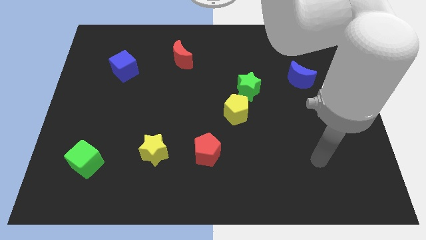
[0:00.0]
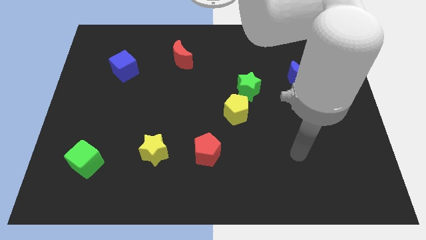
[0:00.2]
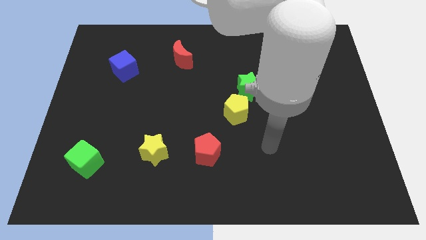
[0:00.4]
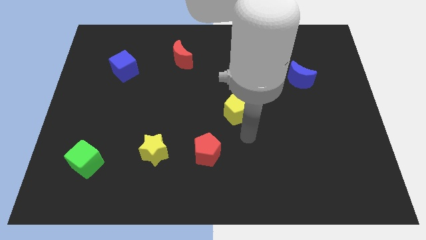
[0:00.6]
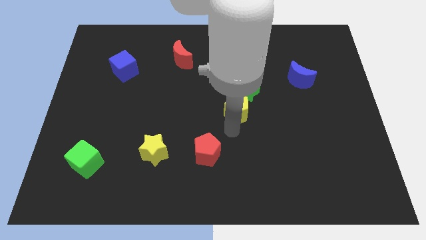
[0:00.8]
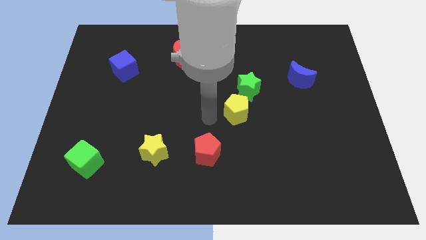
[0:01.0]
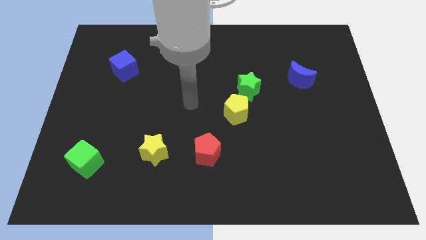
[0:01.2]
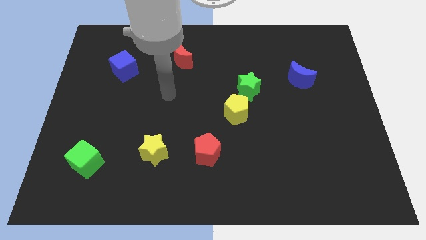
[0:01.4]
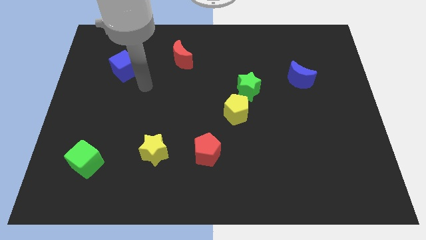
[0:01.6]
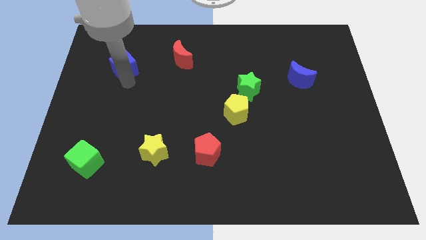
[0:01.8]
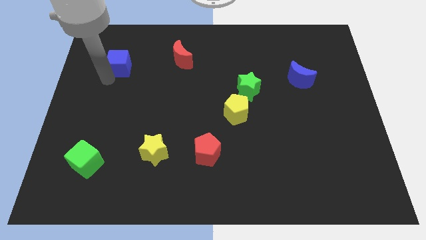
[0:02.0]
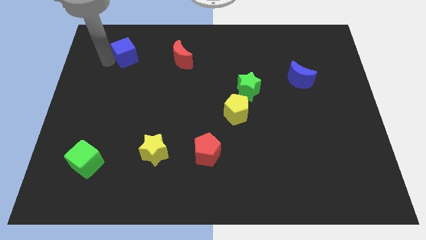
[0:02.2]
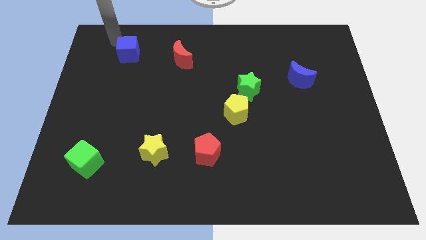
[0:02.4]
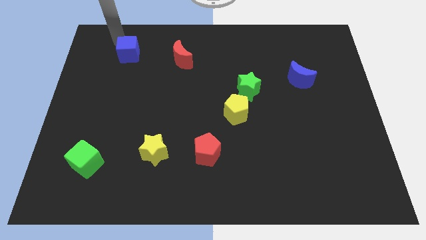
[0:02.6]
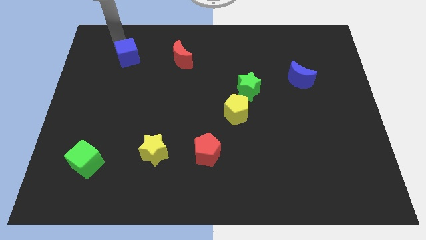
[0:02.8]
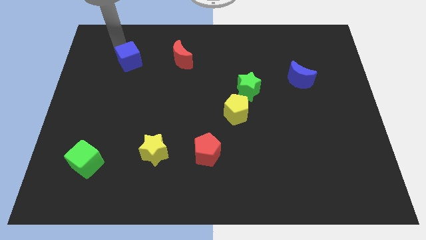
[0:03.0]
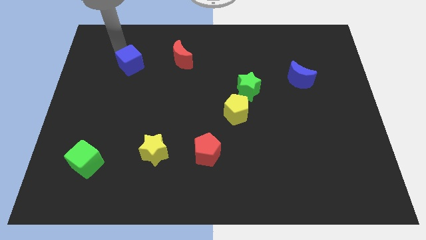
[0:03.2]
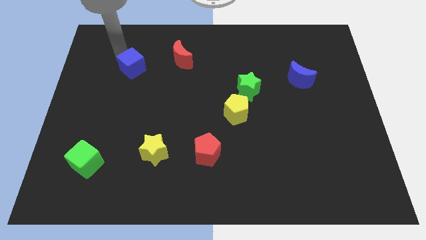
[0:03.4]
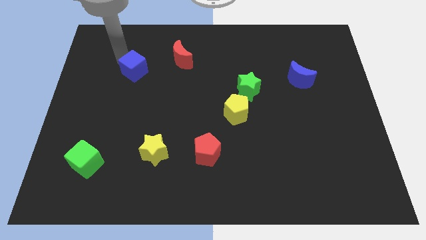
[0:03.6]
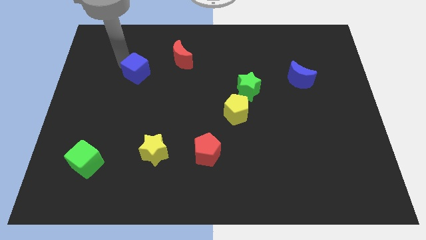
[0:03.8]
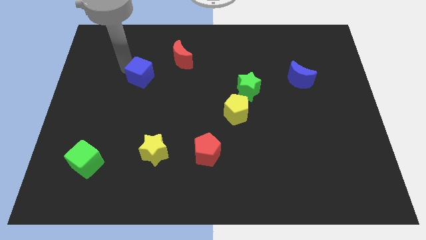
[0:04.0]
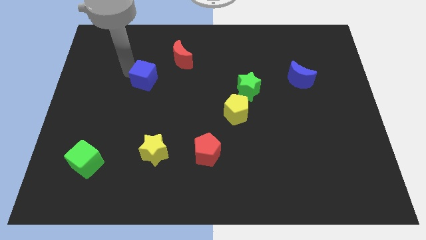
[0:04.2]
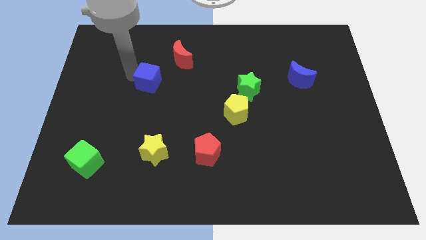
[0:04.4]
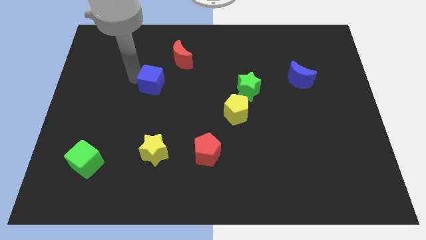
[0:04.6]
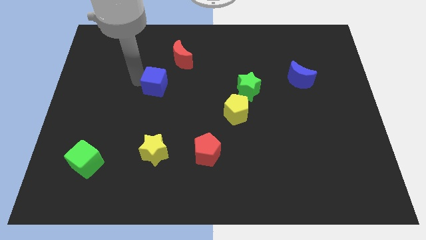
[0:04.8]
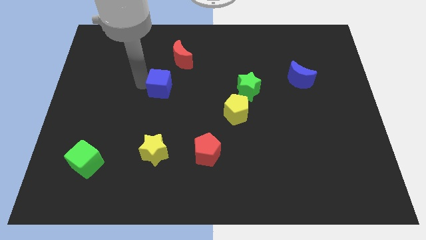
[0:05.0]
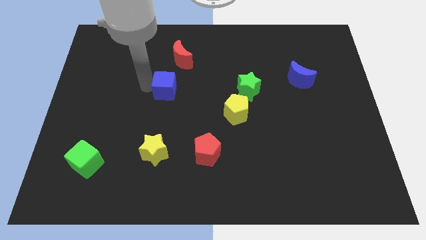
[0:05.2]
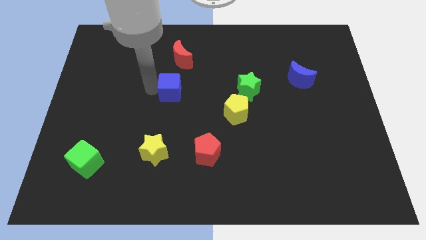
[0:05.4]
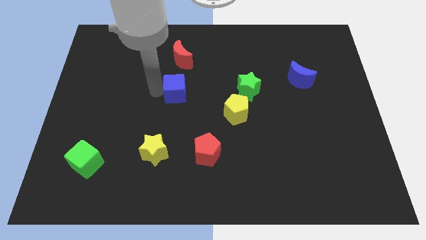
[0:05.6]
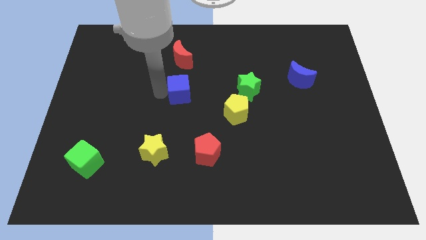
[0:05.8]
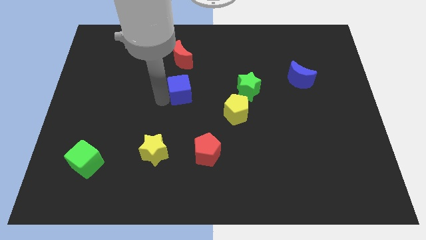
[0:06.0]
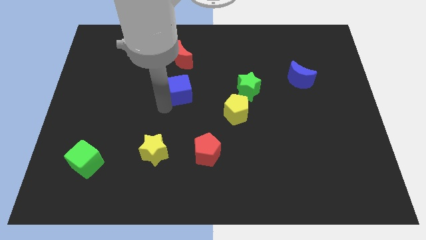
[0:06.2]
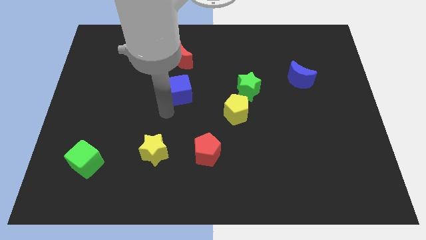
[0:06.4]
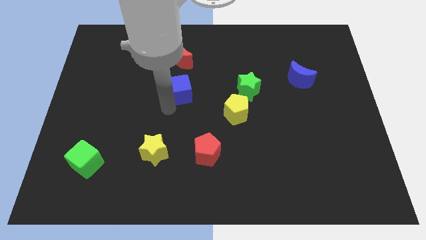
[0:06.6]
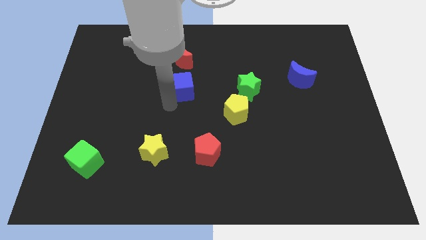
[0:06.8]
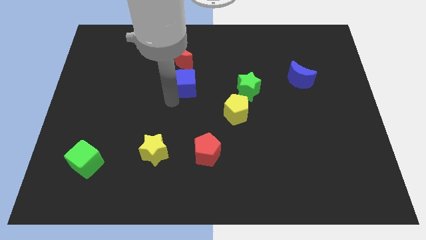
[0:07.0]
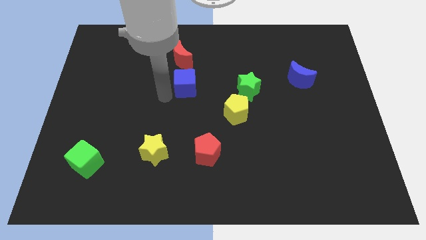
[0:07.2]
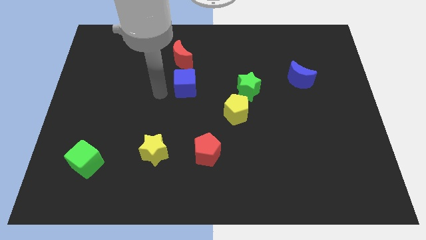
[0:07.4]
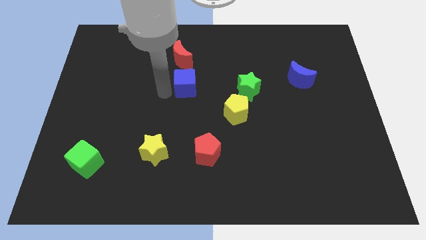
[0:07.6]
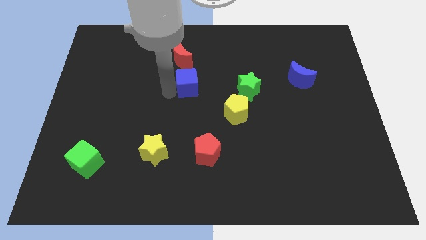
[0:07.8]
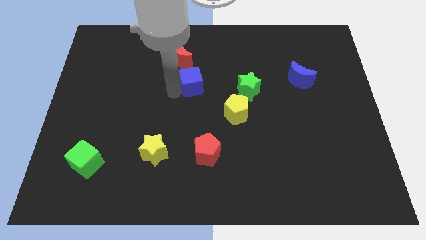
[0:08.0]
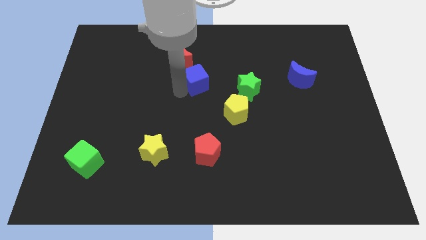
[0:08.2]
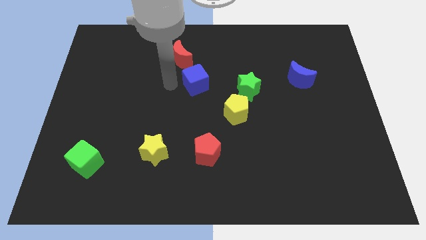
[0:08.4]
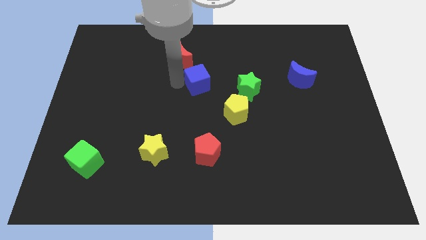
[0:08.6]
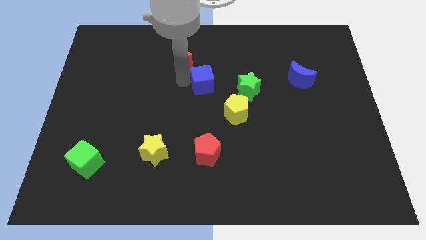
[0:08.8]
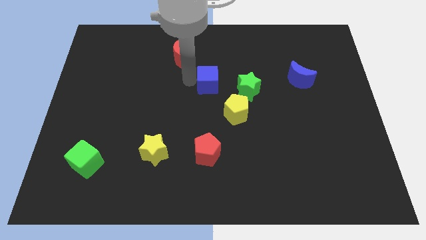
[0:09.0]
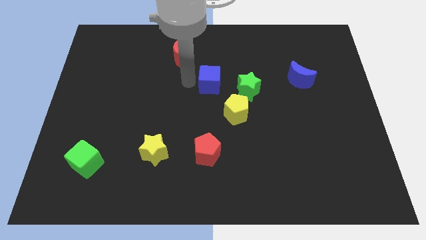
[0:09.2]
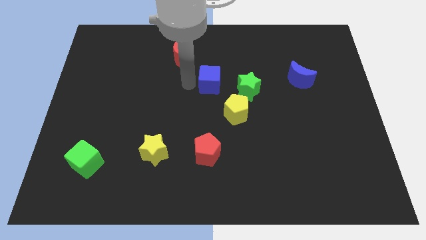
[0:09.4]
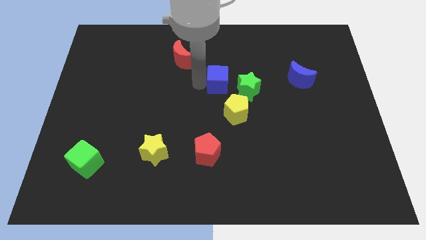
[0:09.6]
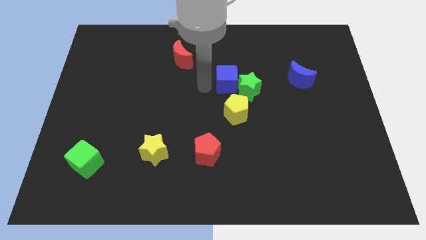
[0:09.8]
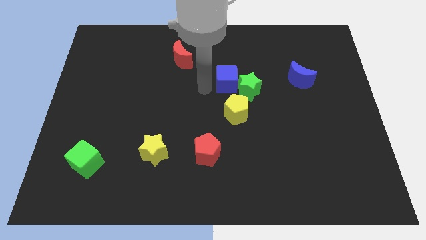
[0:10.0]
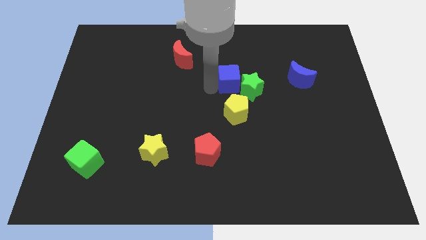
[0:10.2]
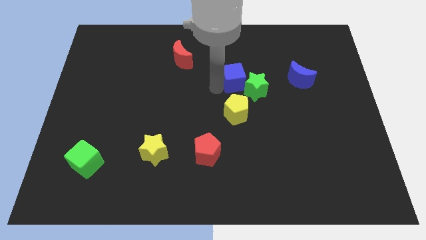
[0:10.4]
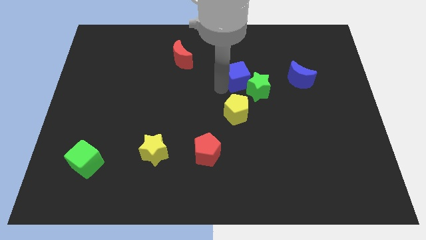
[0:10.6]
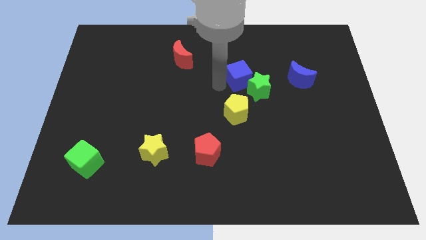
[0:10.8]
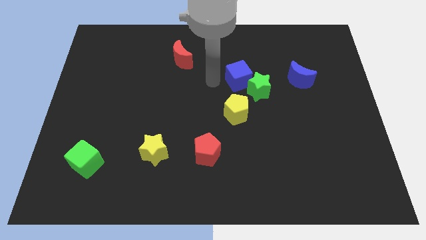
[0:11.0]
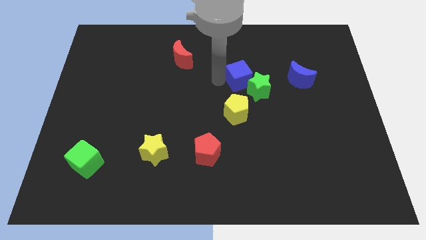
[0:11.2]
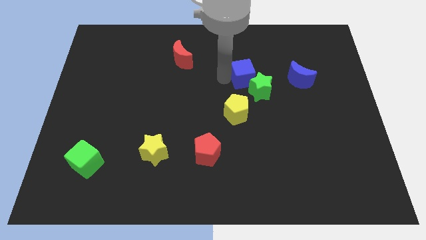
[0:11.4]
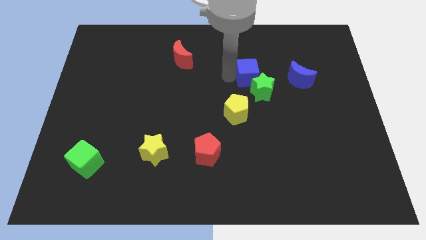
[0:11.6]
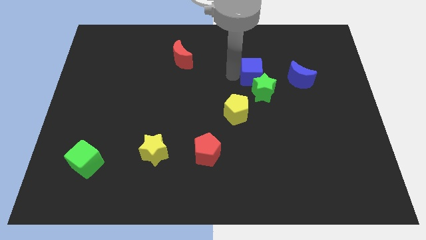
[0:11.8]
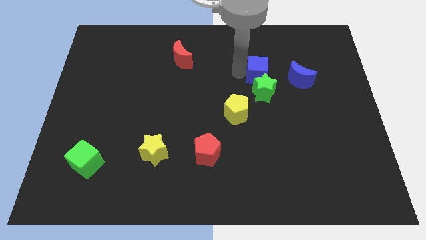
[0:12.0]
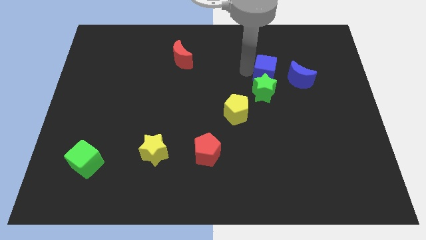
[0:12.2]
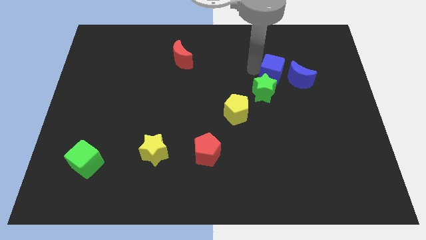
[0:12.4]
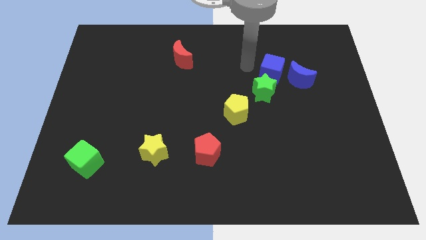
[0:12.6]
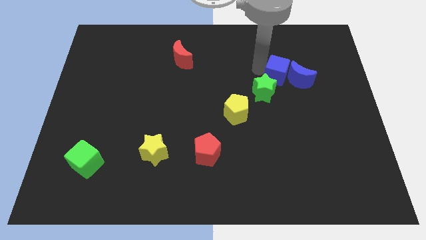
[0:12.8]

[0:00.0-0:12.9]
put the blue cube to the blue moon

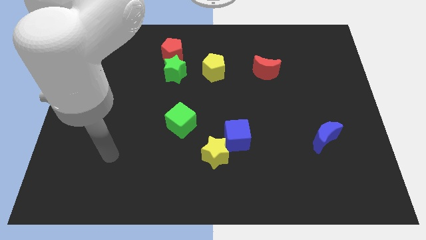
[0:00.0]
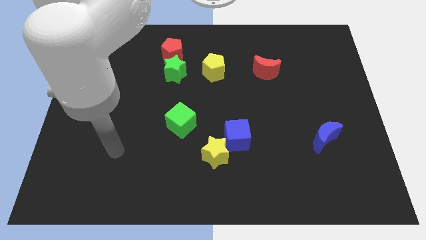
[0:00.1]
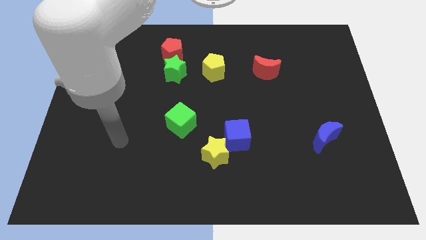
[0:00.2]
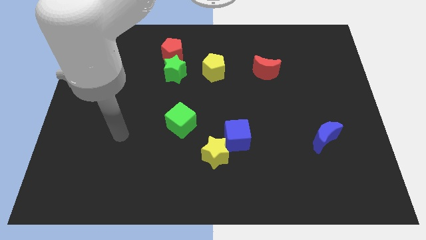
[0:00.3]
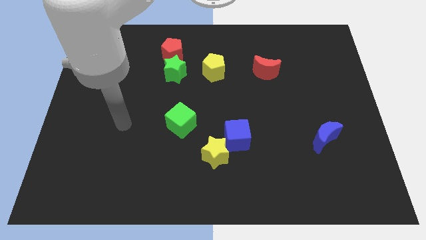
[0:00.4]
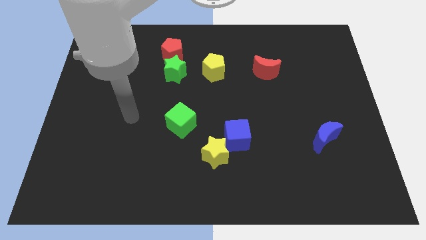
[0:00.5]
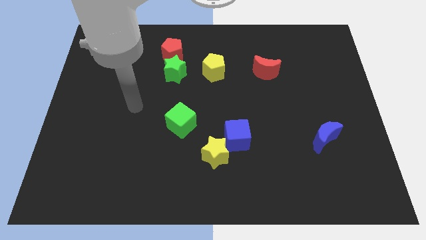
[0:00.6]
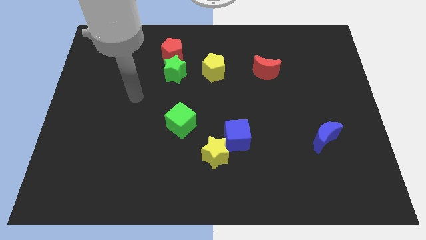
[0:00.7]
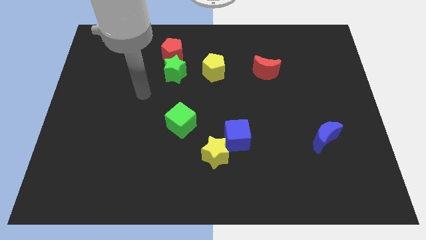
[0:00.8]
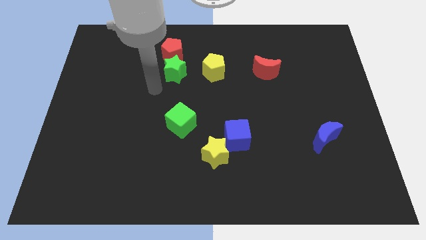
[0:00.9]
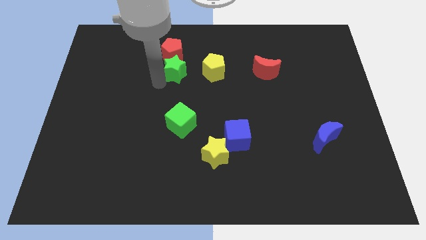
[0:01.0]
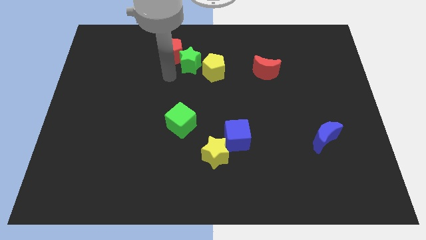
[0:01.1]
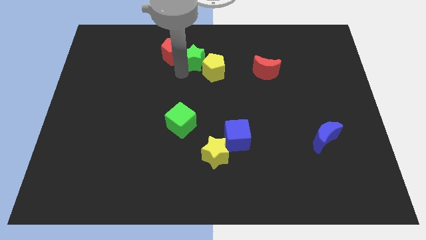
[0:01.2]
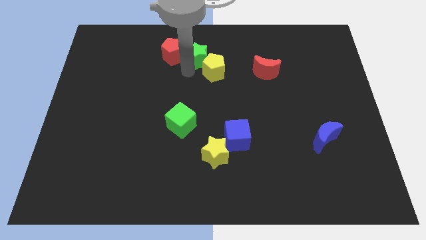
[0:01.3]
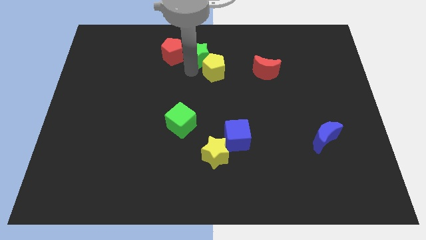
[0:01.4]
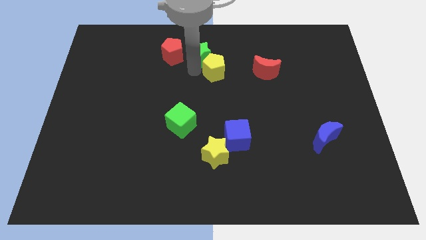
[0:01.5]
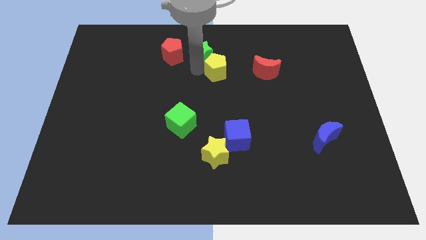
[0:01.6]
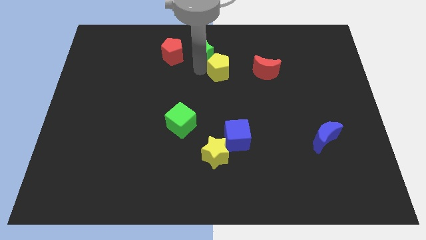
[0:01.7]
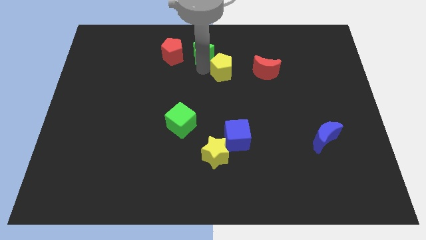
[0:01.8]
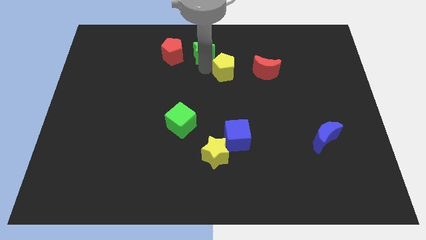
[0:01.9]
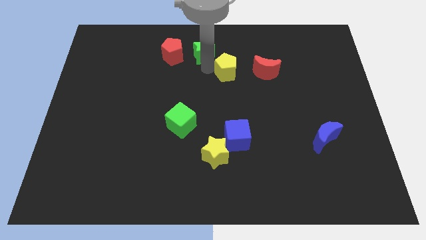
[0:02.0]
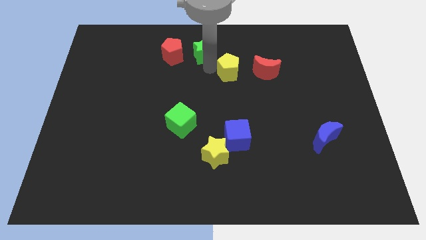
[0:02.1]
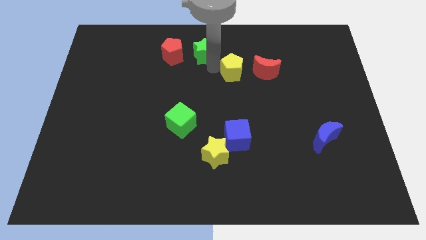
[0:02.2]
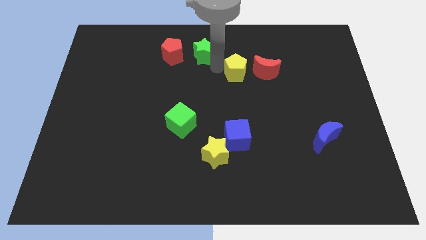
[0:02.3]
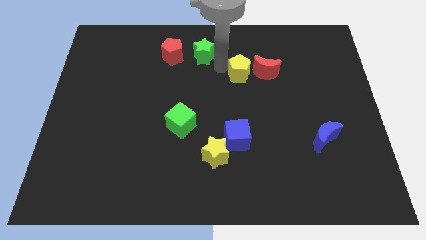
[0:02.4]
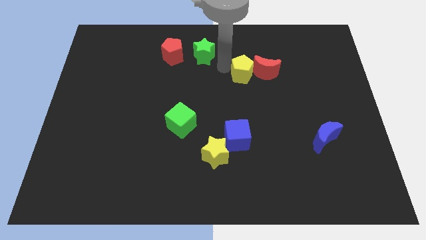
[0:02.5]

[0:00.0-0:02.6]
push the yellow pentagon next to the red moon
